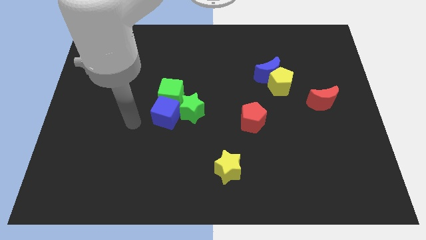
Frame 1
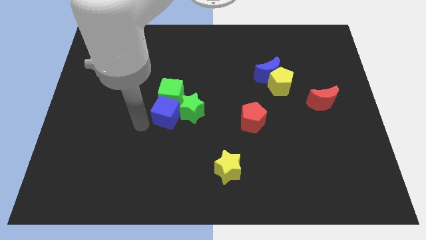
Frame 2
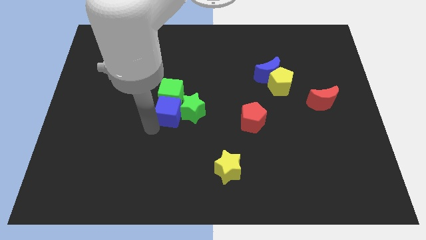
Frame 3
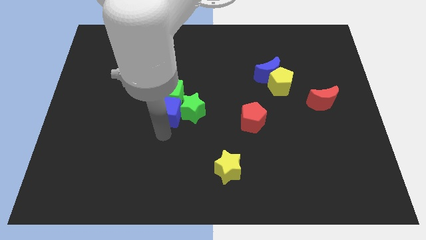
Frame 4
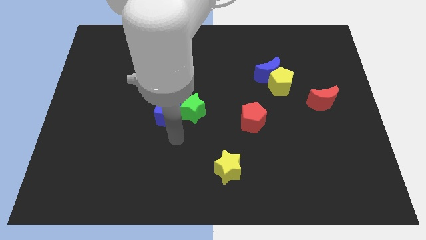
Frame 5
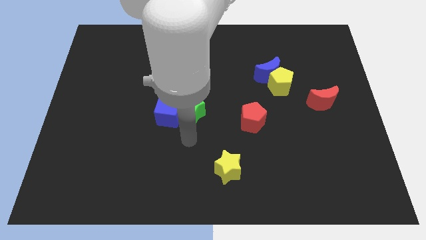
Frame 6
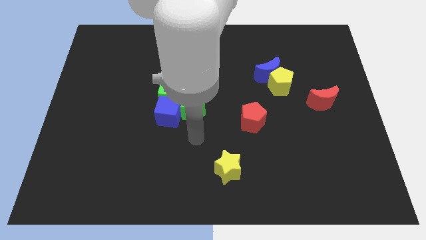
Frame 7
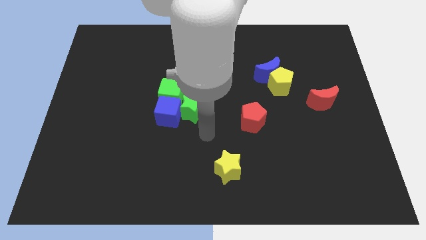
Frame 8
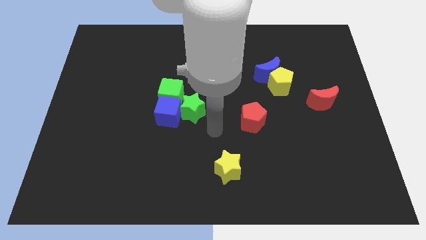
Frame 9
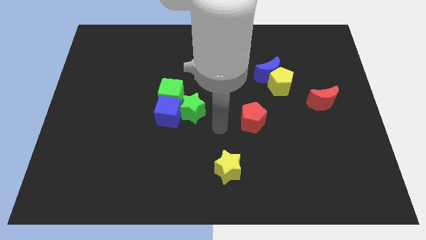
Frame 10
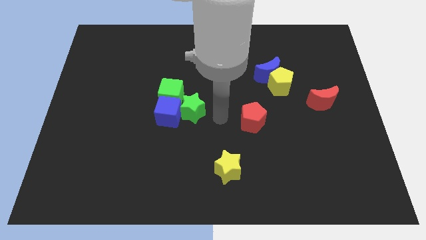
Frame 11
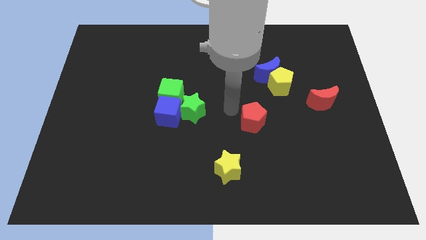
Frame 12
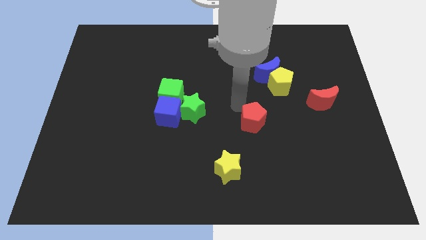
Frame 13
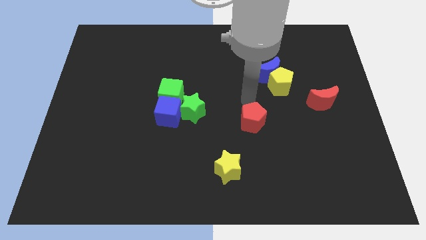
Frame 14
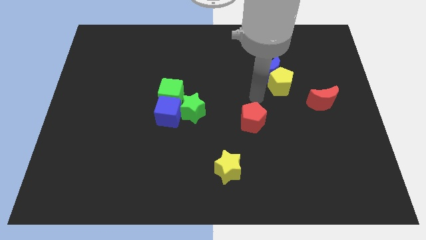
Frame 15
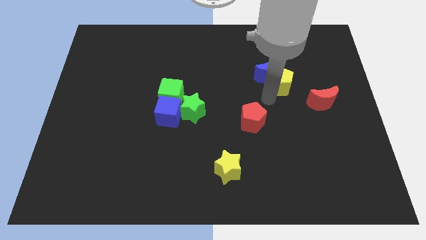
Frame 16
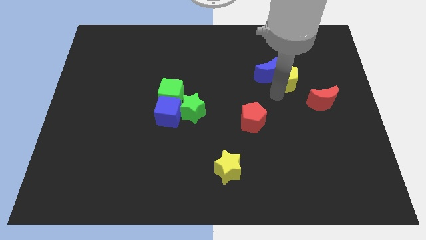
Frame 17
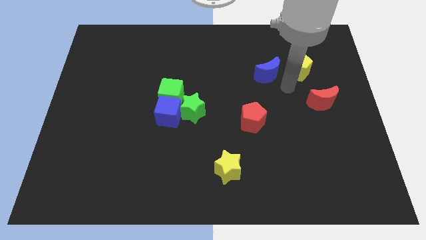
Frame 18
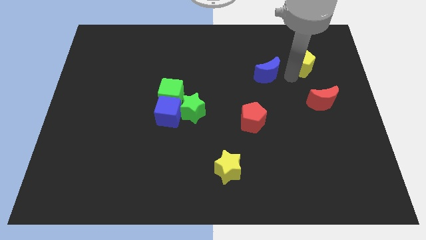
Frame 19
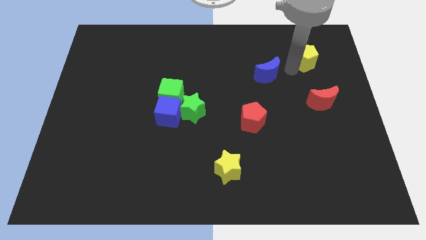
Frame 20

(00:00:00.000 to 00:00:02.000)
separate the blue moon from the yellow pentagon

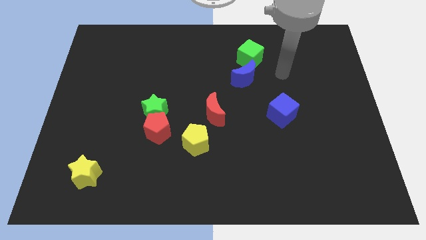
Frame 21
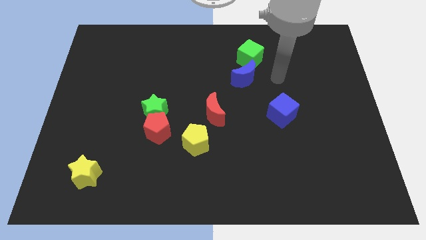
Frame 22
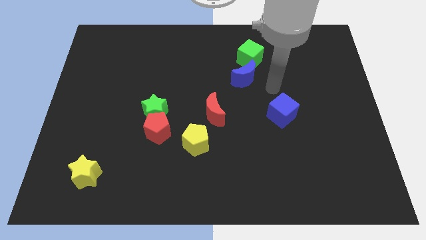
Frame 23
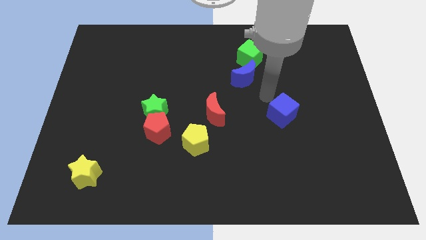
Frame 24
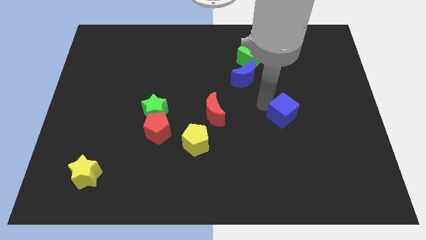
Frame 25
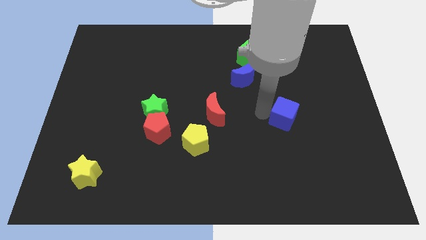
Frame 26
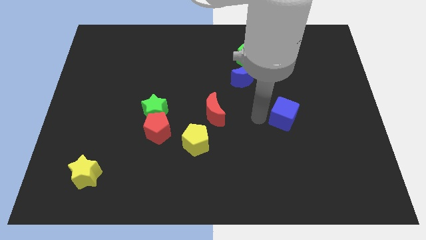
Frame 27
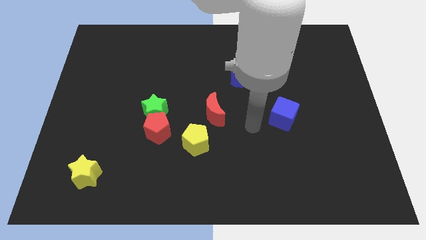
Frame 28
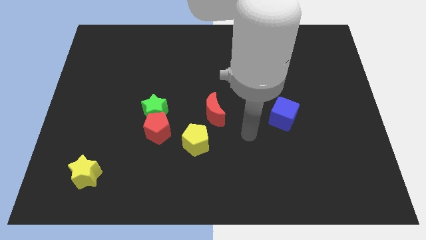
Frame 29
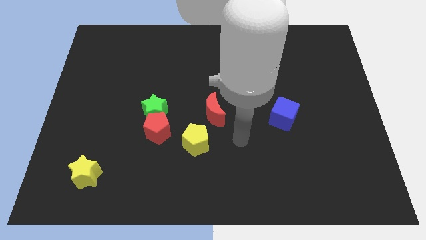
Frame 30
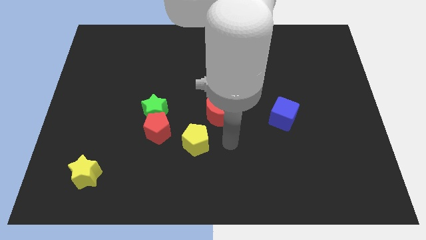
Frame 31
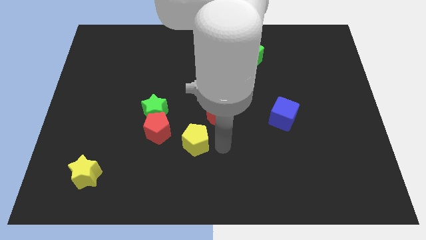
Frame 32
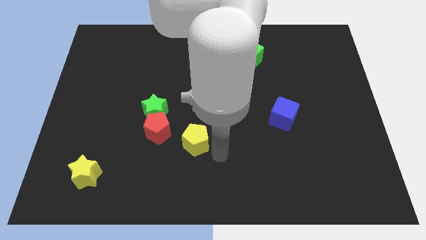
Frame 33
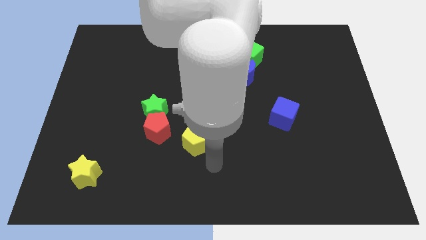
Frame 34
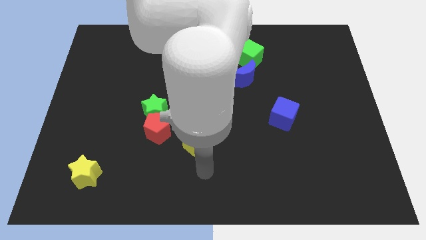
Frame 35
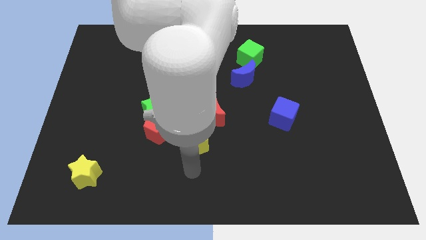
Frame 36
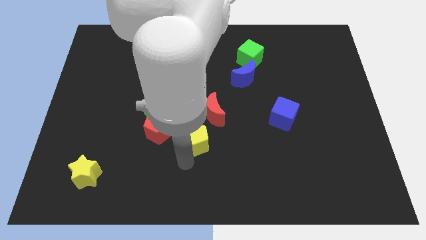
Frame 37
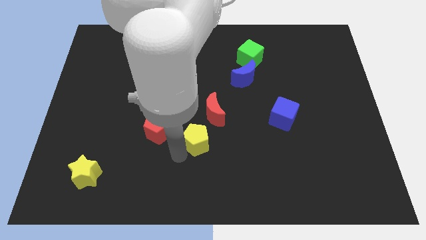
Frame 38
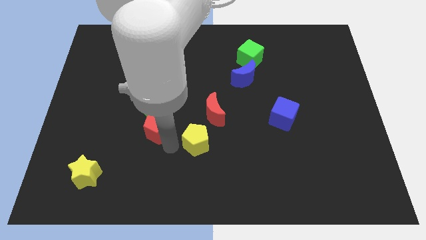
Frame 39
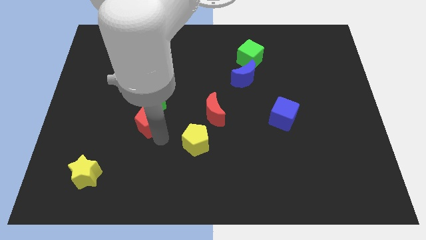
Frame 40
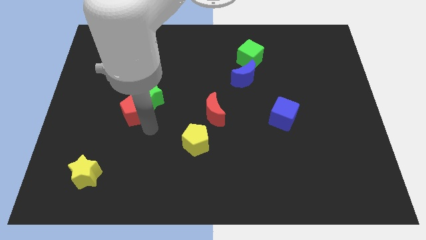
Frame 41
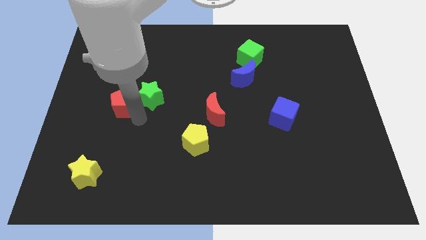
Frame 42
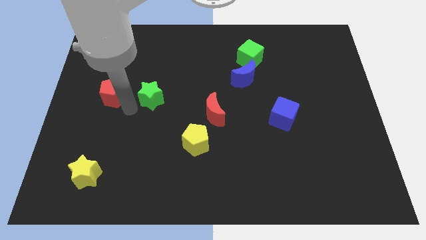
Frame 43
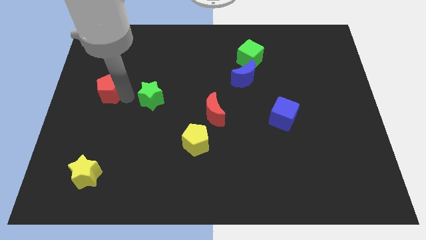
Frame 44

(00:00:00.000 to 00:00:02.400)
move the green star away from the red pentagon

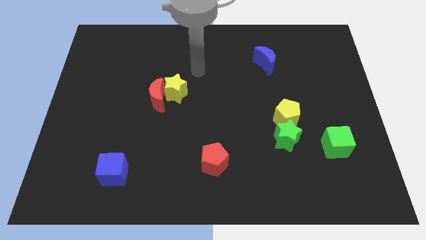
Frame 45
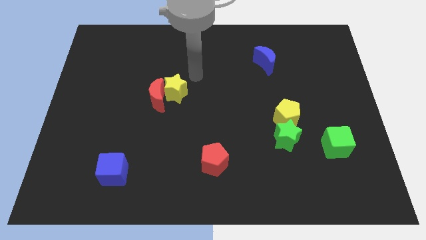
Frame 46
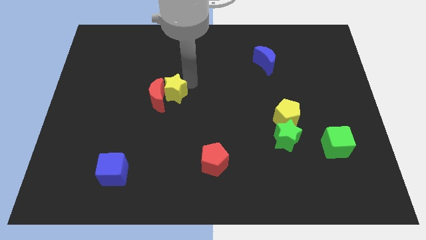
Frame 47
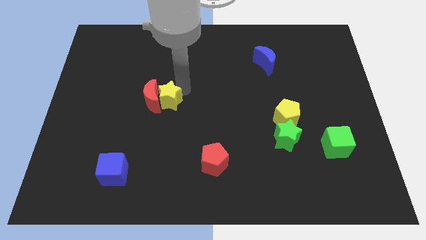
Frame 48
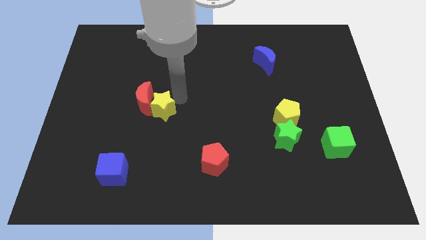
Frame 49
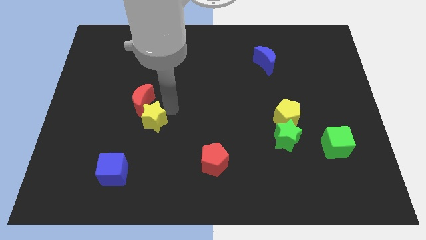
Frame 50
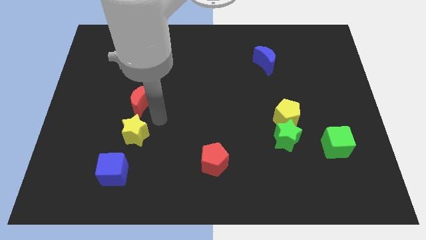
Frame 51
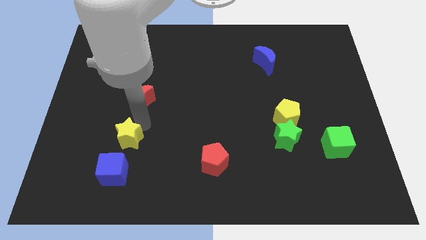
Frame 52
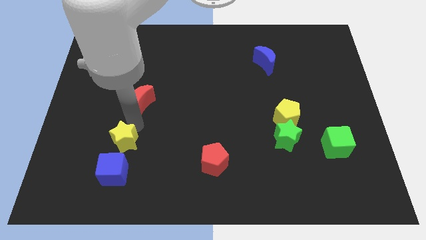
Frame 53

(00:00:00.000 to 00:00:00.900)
move the red moon away from the yellow star

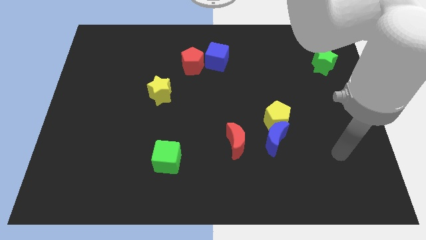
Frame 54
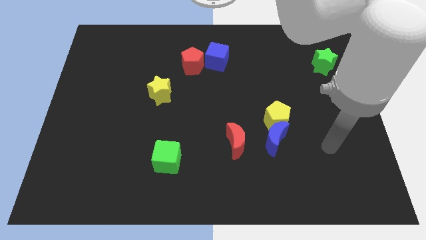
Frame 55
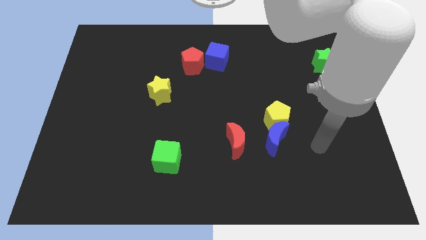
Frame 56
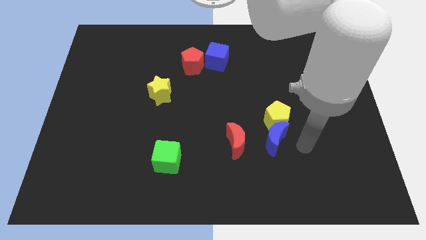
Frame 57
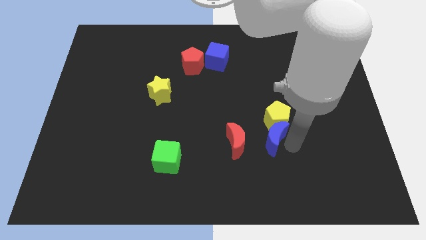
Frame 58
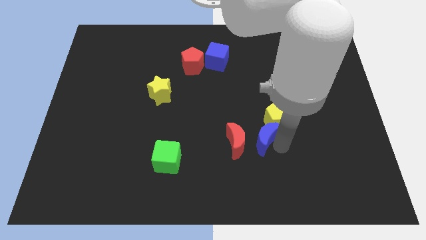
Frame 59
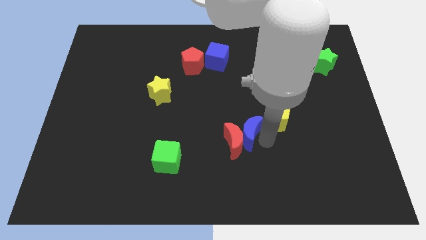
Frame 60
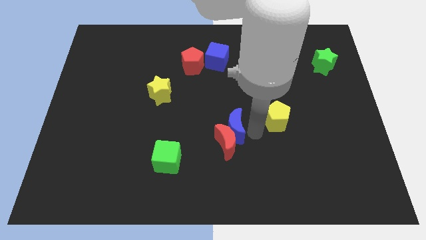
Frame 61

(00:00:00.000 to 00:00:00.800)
move the yellow pentagon away from the blue moon

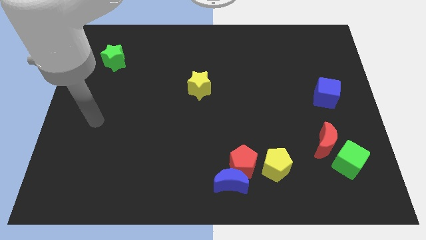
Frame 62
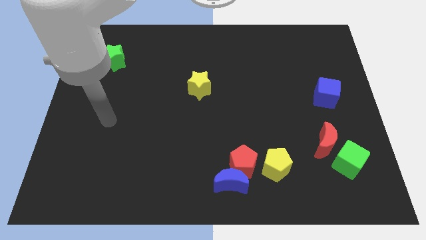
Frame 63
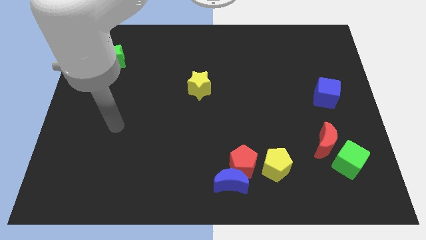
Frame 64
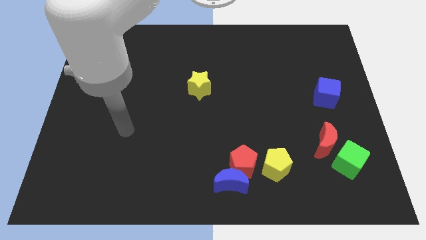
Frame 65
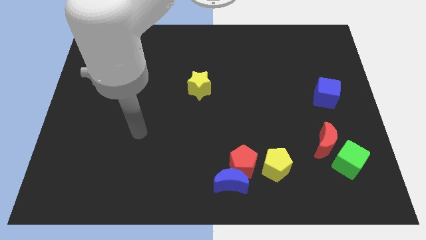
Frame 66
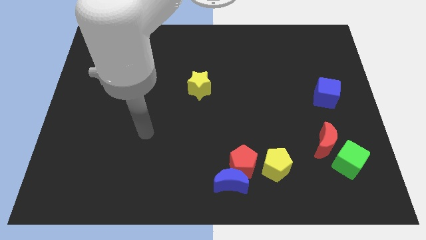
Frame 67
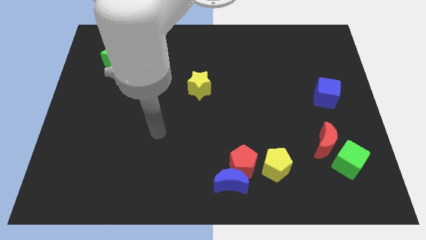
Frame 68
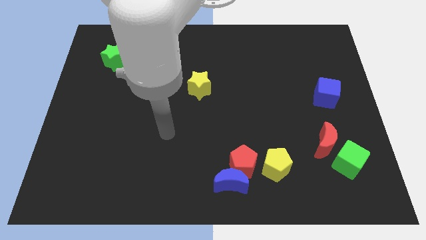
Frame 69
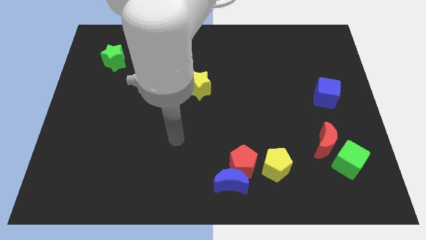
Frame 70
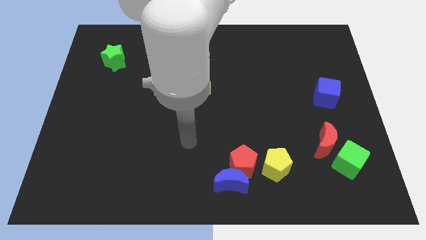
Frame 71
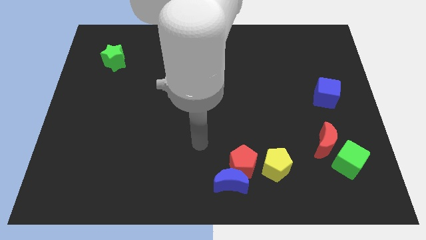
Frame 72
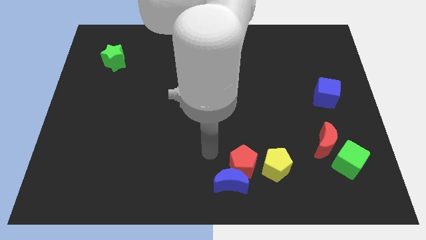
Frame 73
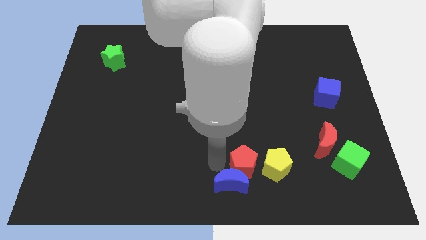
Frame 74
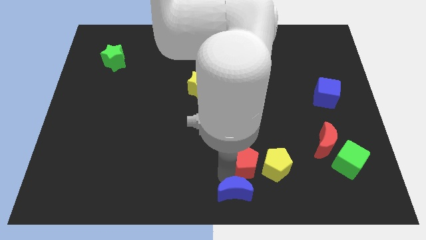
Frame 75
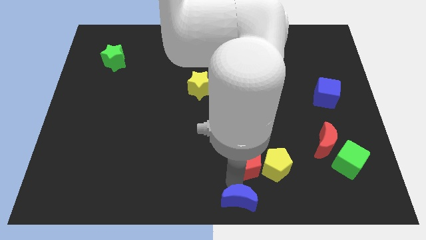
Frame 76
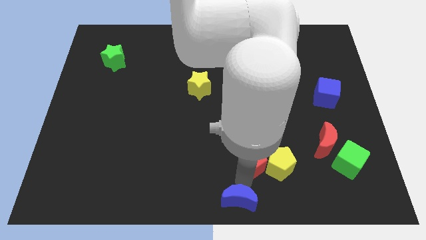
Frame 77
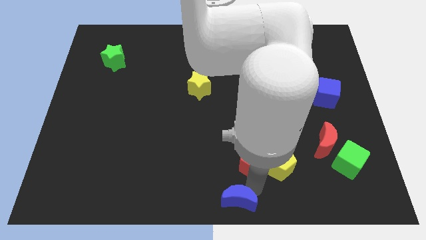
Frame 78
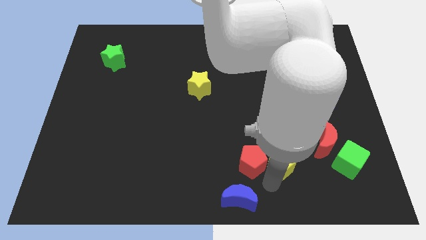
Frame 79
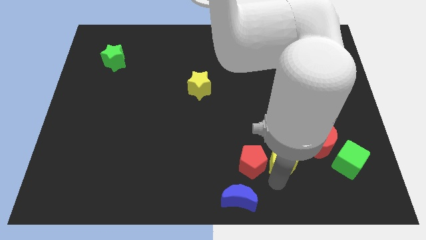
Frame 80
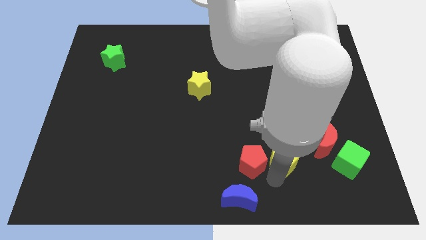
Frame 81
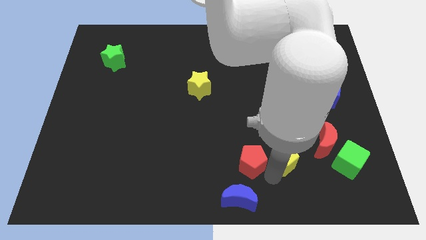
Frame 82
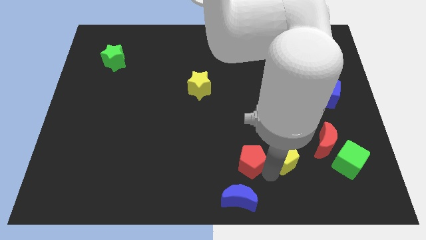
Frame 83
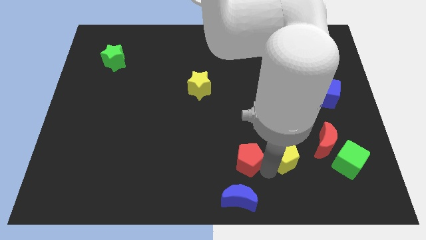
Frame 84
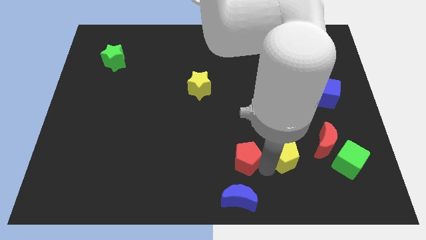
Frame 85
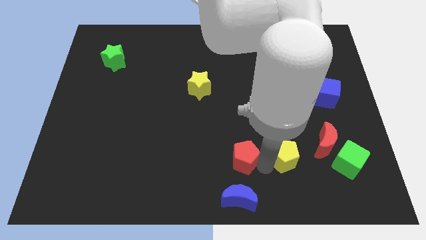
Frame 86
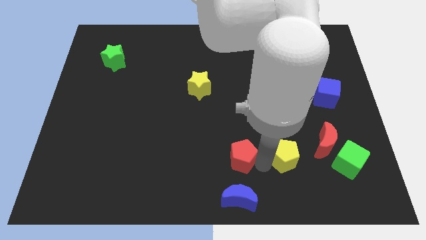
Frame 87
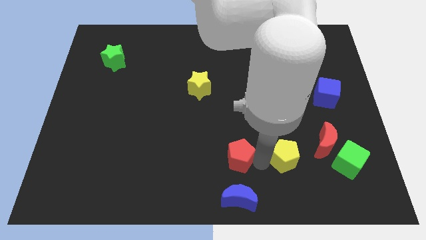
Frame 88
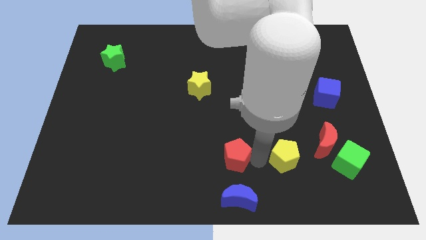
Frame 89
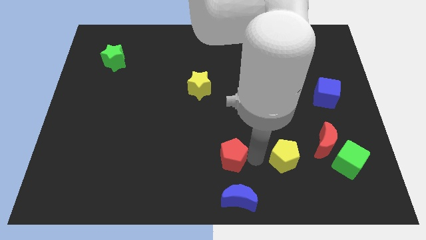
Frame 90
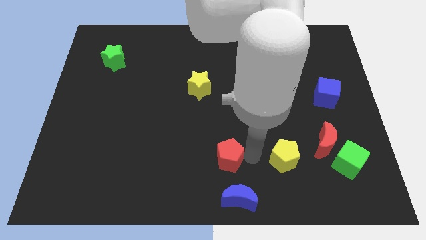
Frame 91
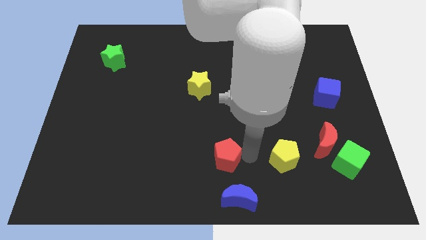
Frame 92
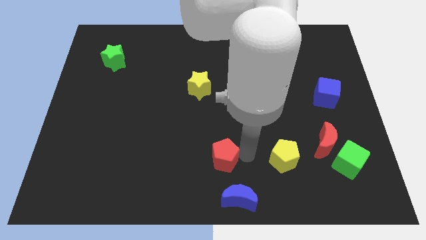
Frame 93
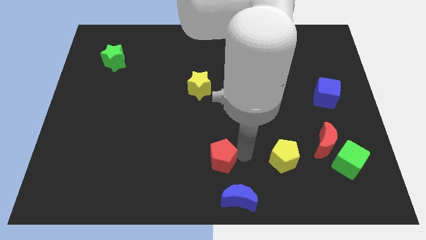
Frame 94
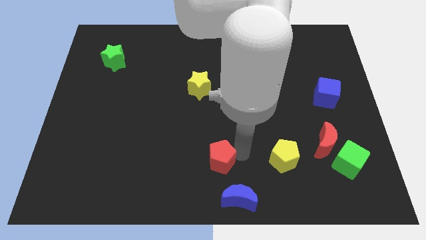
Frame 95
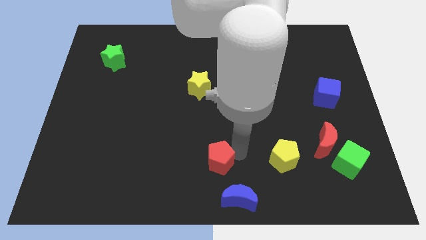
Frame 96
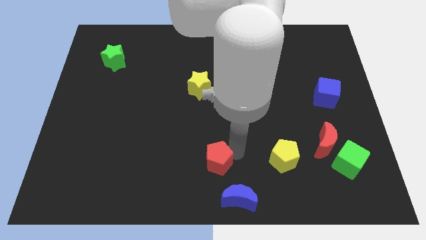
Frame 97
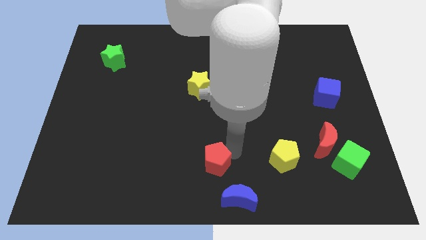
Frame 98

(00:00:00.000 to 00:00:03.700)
move the red pentagon away from the blue moon and yellow pentagon
